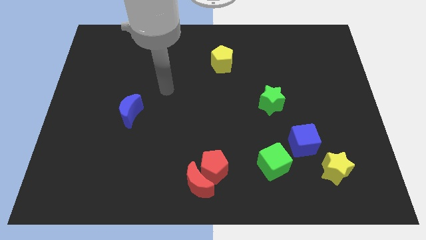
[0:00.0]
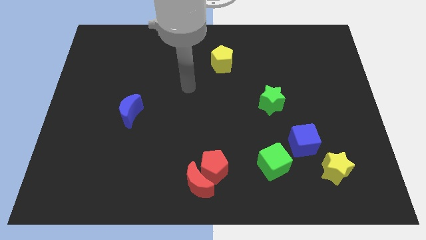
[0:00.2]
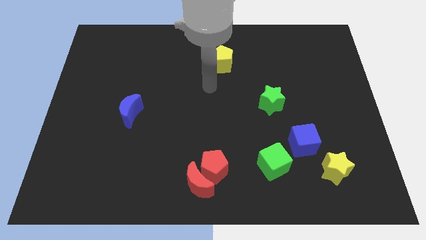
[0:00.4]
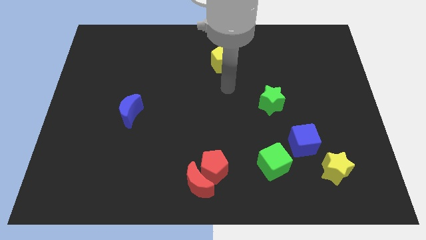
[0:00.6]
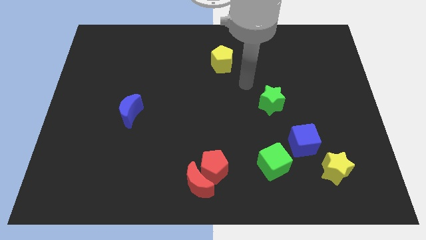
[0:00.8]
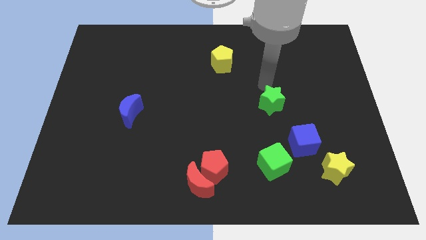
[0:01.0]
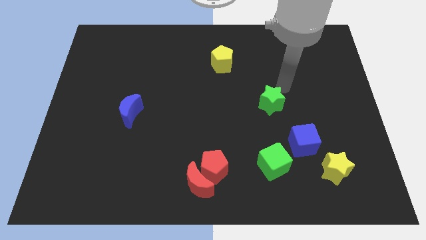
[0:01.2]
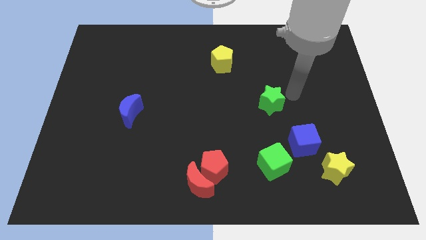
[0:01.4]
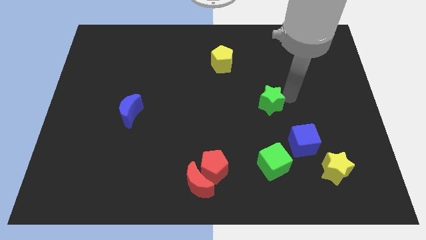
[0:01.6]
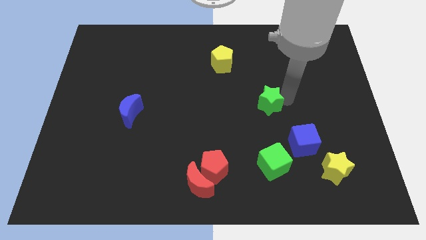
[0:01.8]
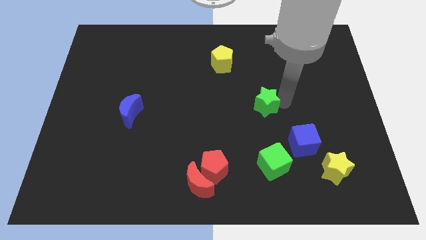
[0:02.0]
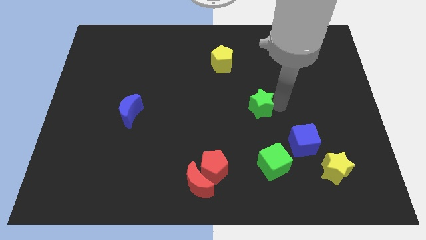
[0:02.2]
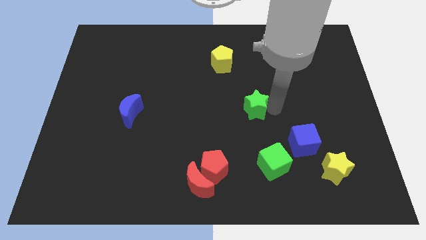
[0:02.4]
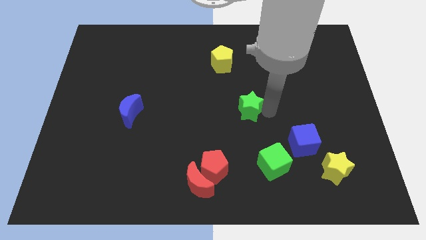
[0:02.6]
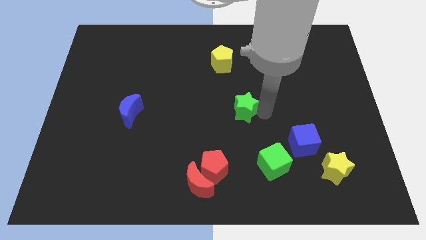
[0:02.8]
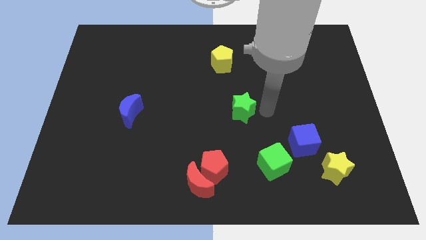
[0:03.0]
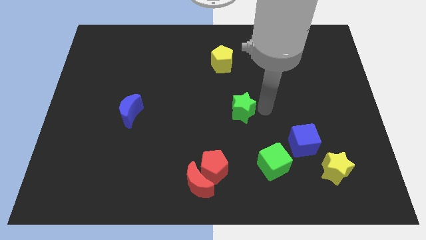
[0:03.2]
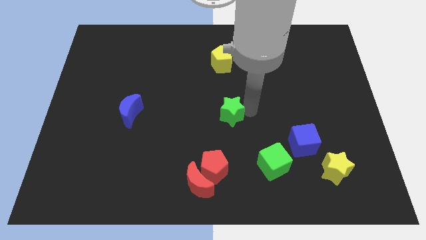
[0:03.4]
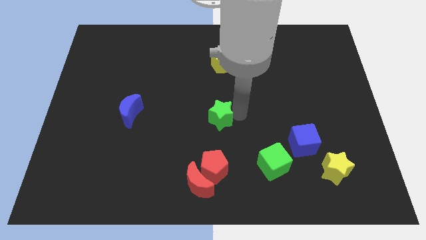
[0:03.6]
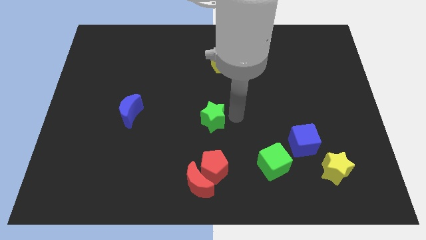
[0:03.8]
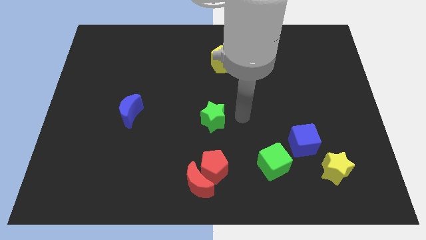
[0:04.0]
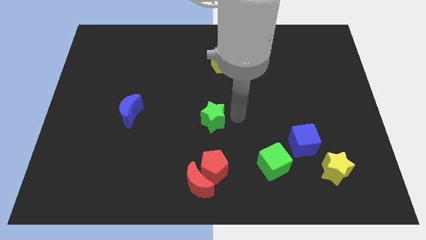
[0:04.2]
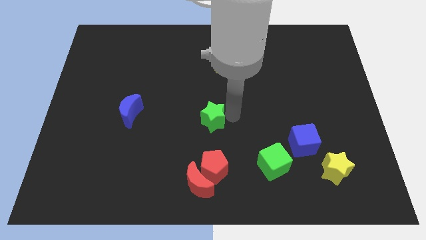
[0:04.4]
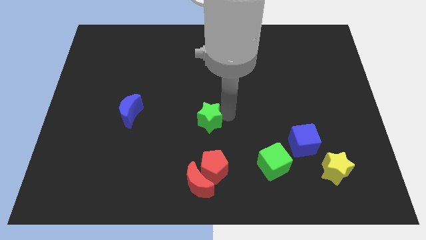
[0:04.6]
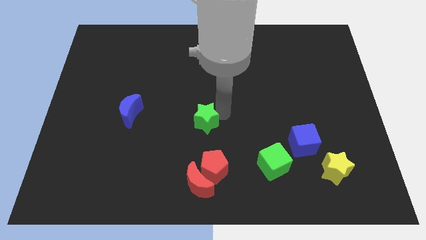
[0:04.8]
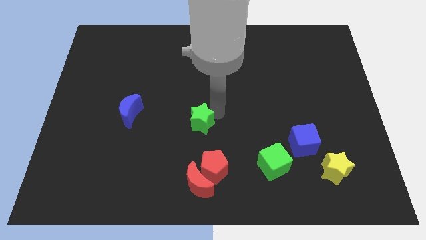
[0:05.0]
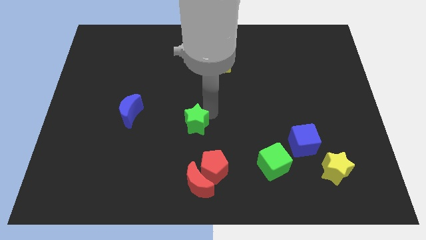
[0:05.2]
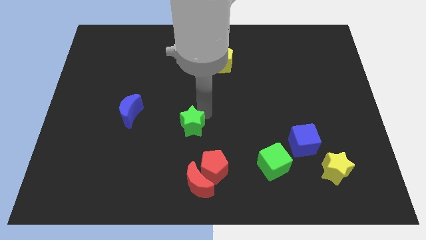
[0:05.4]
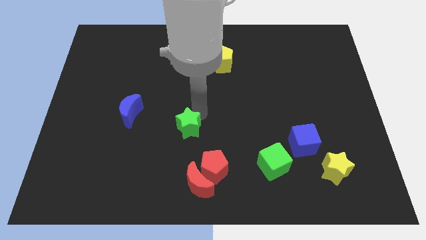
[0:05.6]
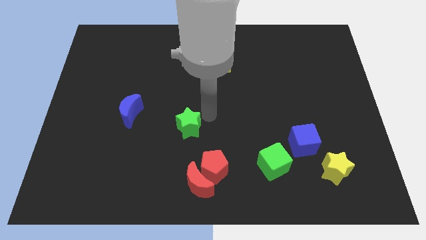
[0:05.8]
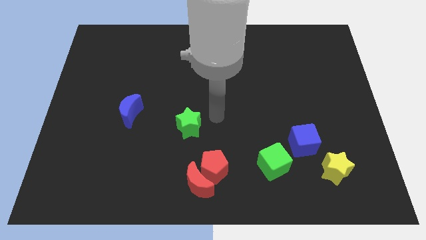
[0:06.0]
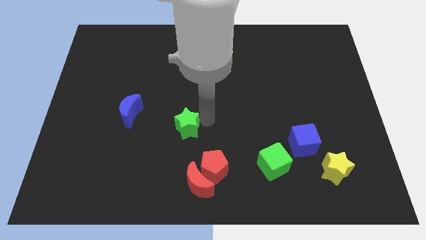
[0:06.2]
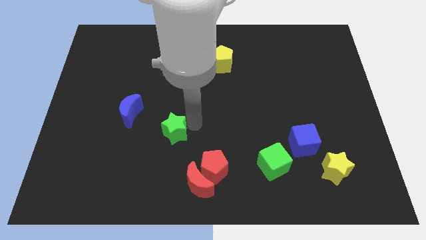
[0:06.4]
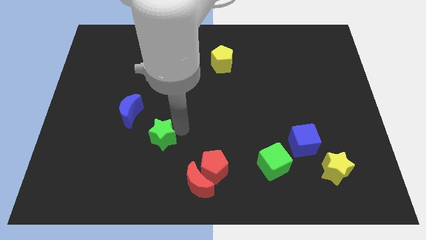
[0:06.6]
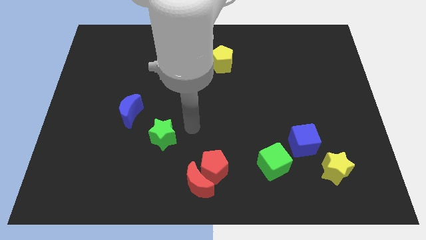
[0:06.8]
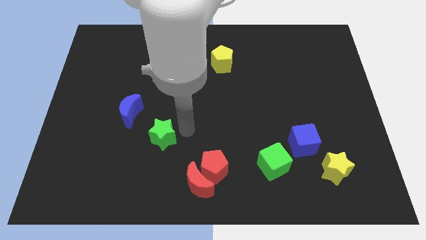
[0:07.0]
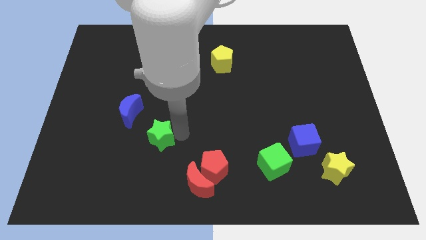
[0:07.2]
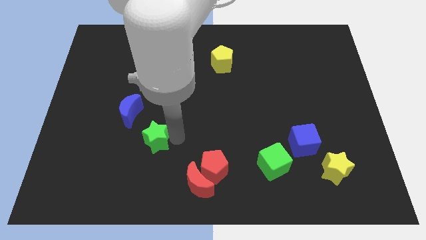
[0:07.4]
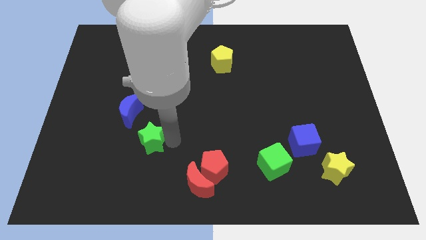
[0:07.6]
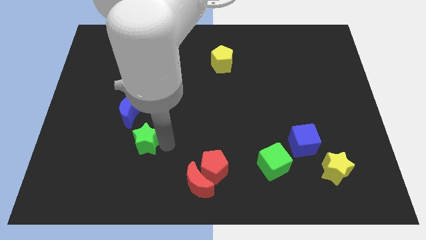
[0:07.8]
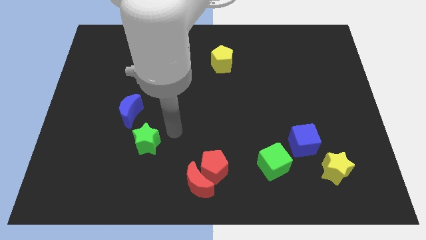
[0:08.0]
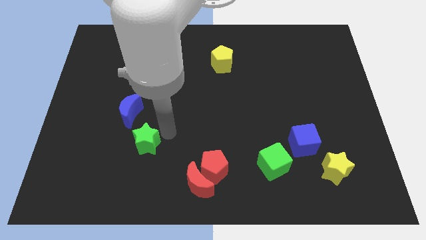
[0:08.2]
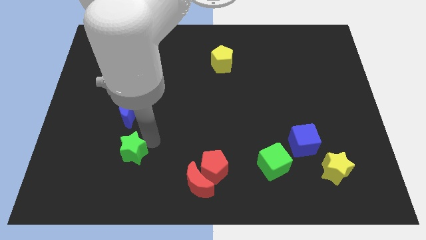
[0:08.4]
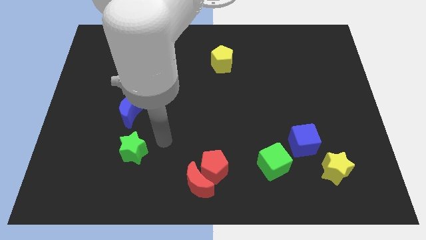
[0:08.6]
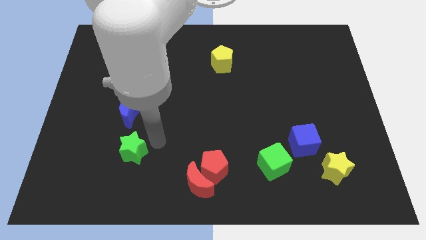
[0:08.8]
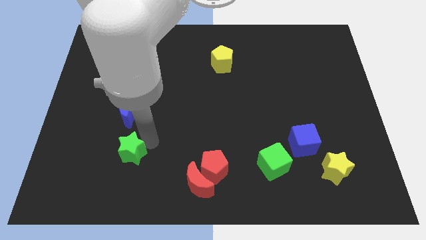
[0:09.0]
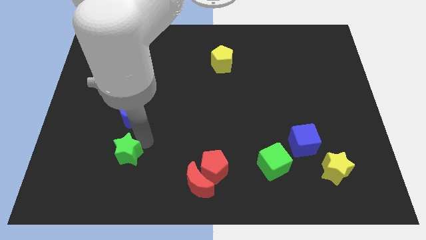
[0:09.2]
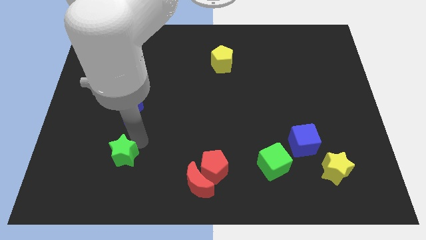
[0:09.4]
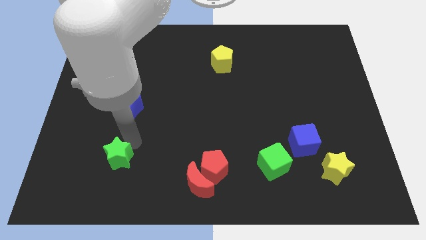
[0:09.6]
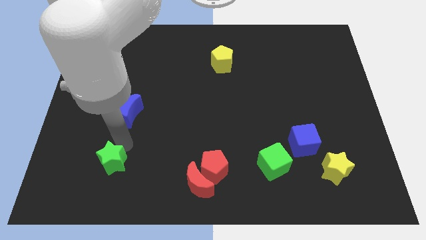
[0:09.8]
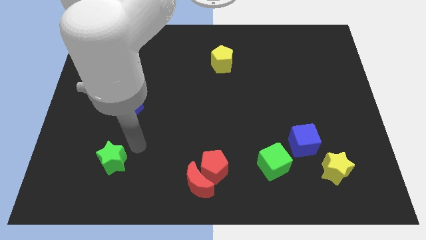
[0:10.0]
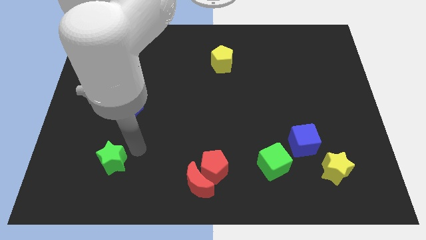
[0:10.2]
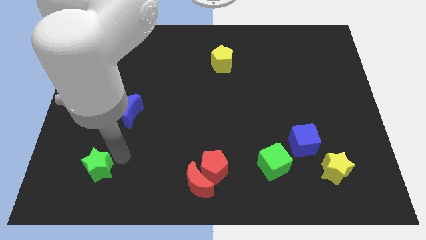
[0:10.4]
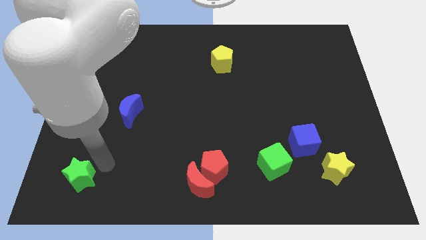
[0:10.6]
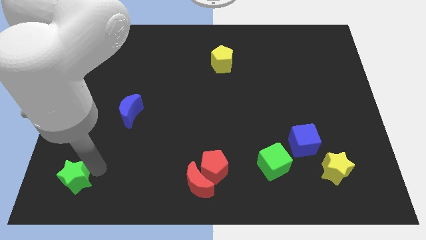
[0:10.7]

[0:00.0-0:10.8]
push the green star to the bottom left corner

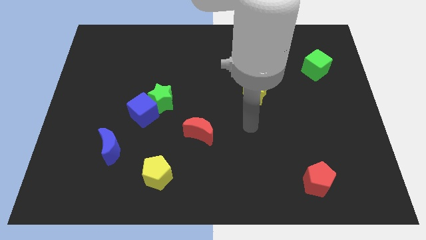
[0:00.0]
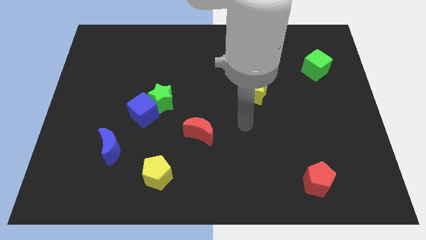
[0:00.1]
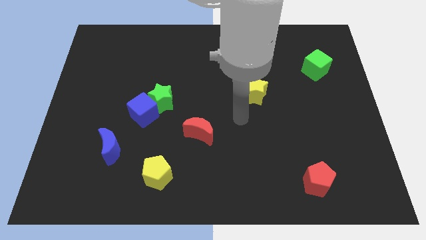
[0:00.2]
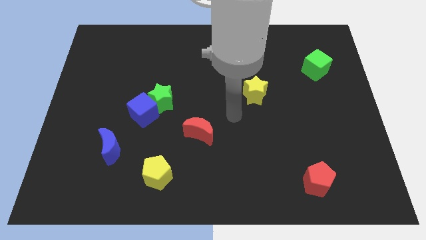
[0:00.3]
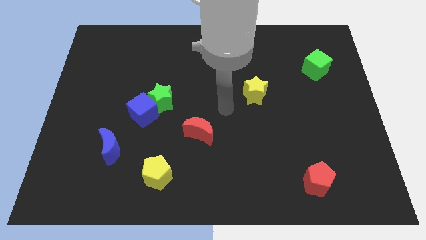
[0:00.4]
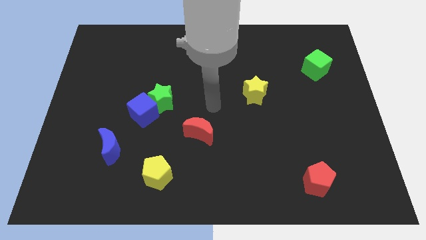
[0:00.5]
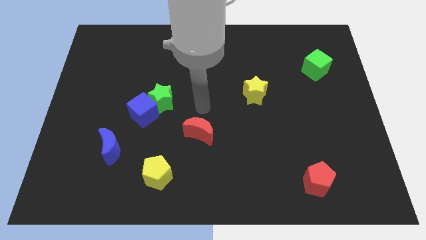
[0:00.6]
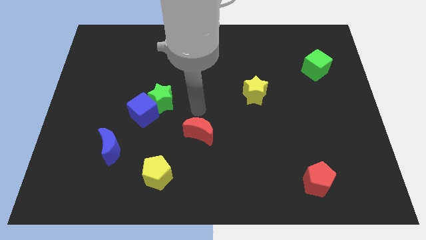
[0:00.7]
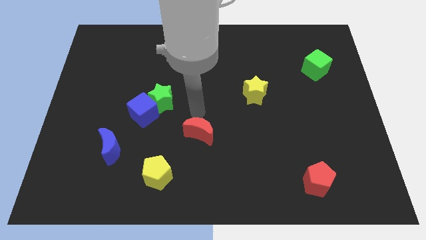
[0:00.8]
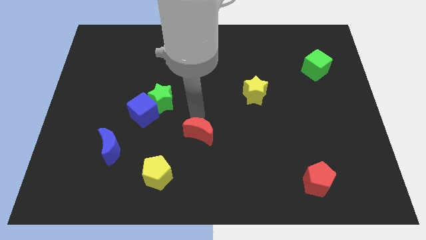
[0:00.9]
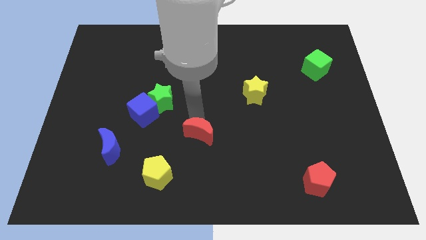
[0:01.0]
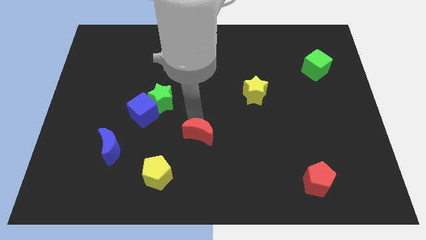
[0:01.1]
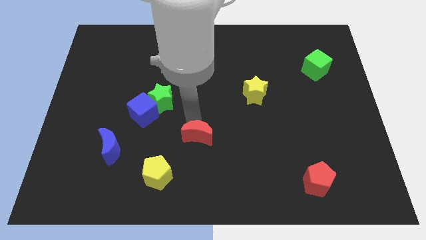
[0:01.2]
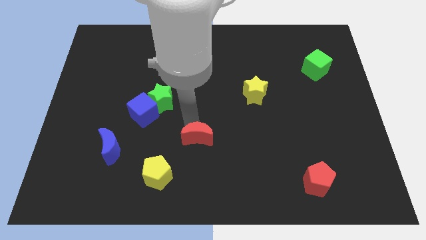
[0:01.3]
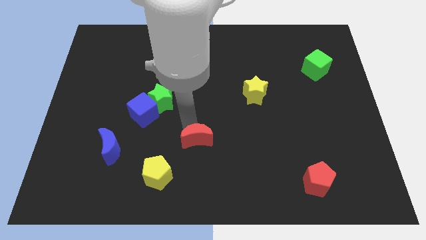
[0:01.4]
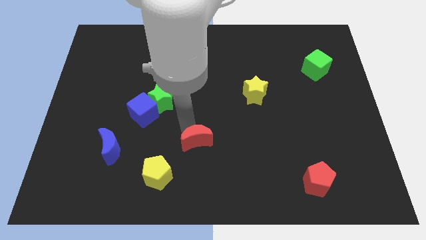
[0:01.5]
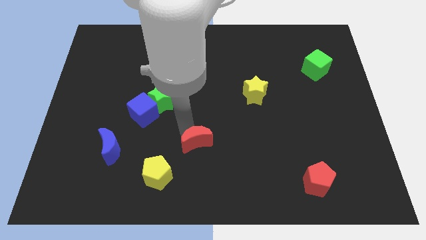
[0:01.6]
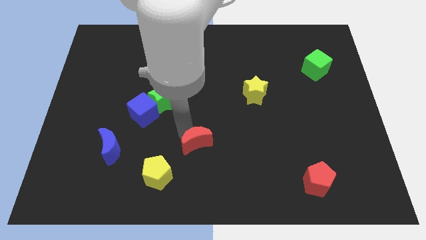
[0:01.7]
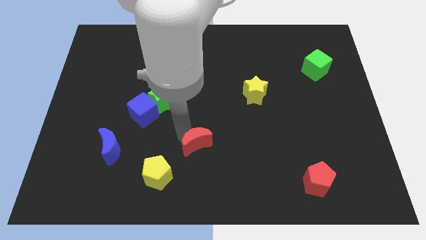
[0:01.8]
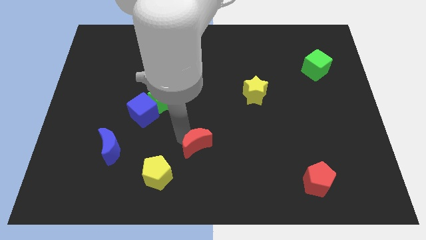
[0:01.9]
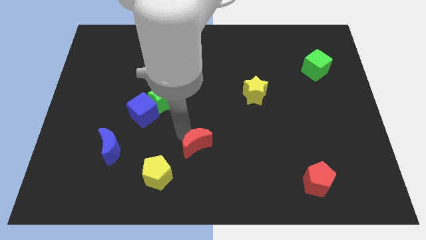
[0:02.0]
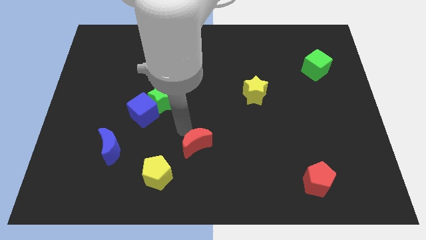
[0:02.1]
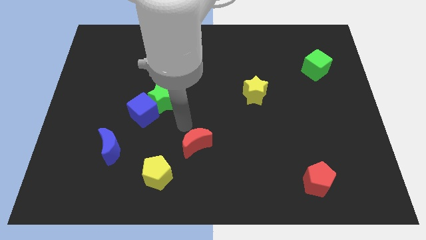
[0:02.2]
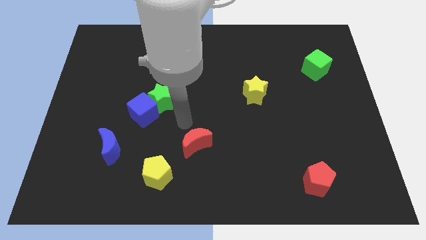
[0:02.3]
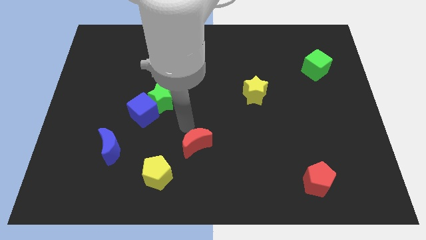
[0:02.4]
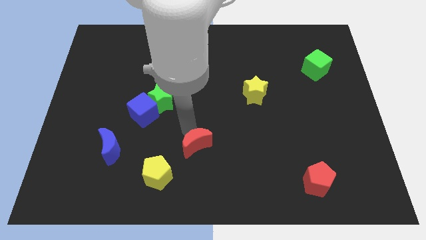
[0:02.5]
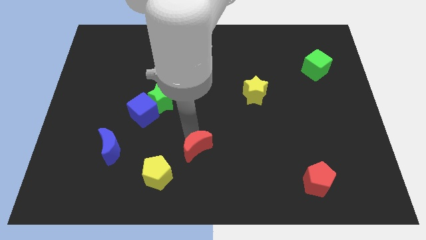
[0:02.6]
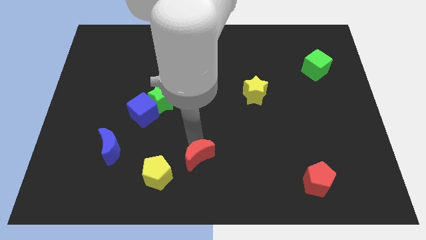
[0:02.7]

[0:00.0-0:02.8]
put the red moon to the bottom side
